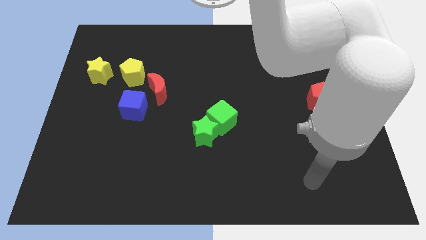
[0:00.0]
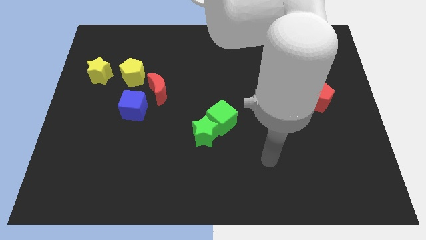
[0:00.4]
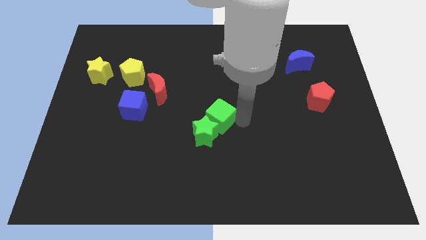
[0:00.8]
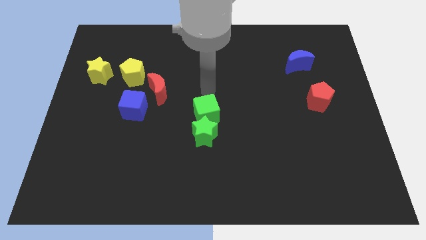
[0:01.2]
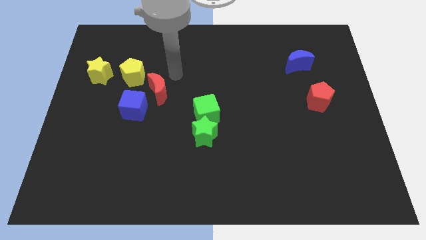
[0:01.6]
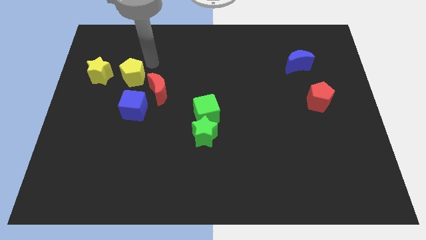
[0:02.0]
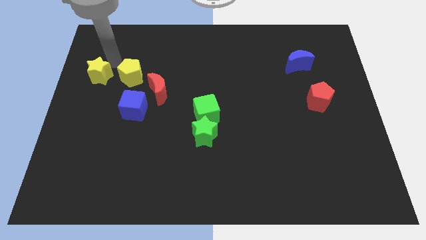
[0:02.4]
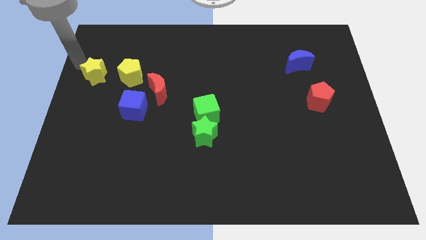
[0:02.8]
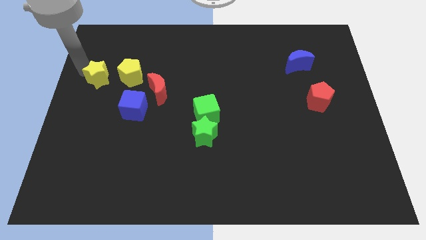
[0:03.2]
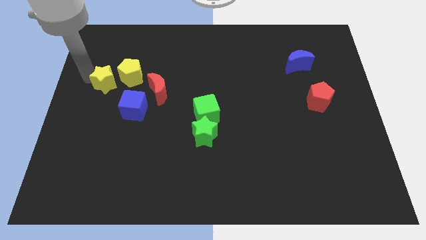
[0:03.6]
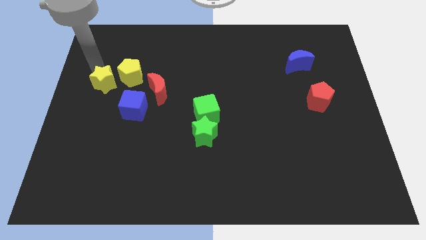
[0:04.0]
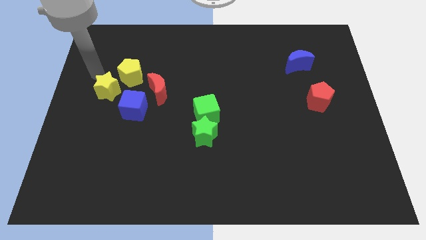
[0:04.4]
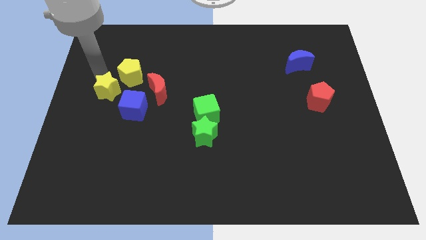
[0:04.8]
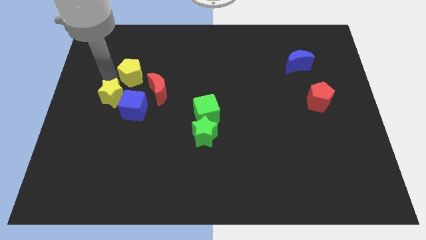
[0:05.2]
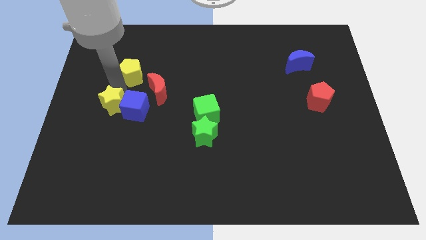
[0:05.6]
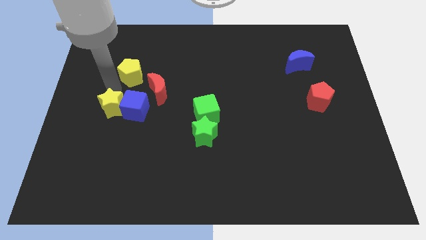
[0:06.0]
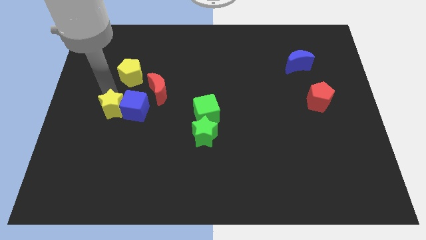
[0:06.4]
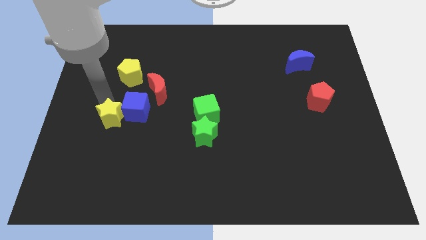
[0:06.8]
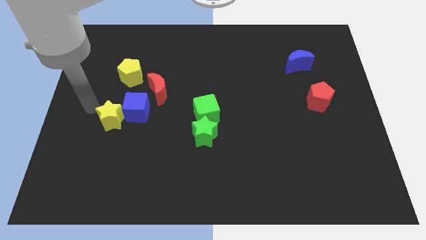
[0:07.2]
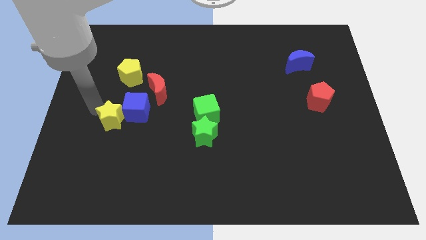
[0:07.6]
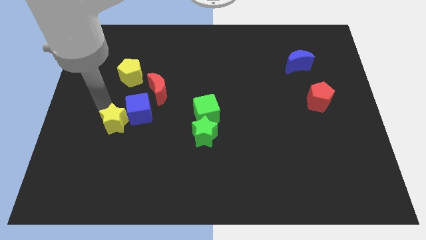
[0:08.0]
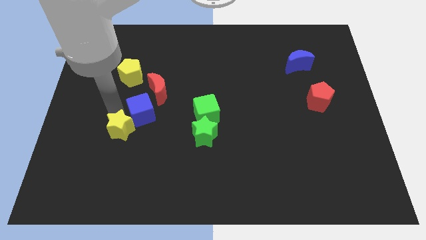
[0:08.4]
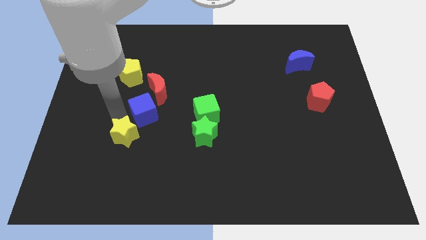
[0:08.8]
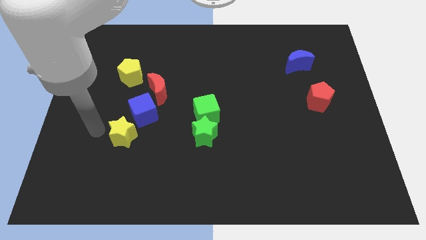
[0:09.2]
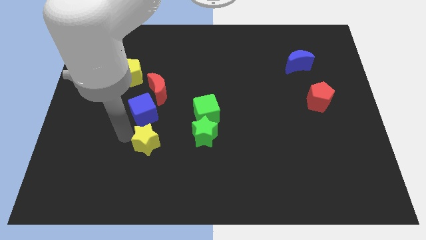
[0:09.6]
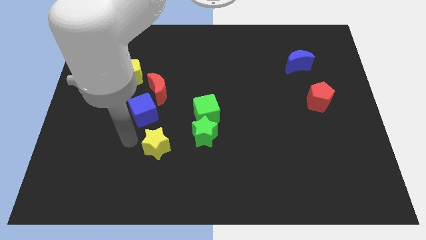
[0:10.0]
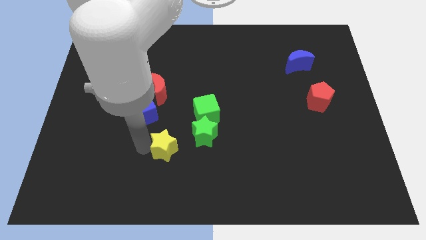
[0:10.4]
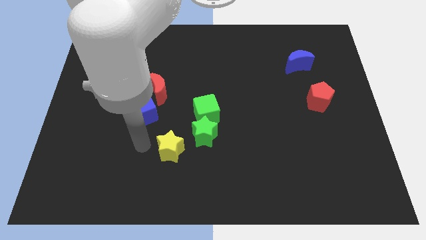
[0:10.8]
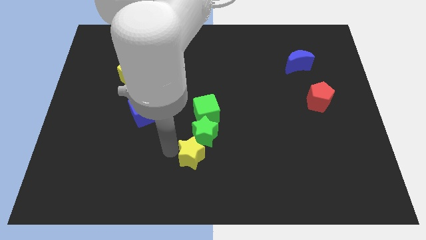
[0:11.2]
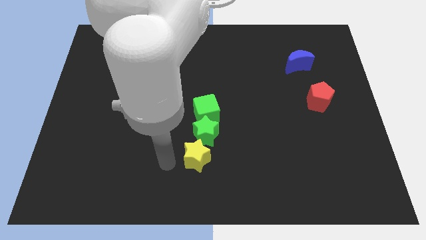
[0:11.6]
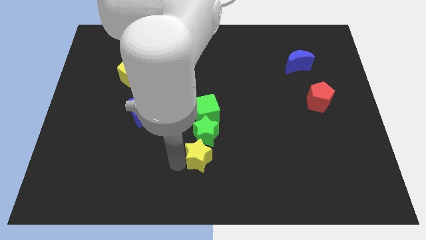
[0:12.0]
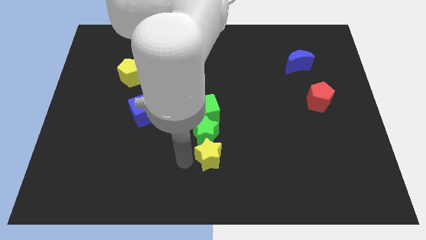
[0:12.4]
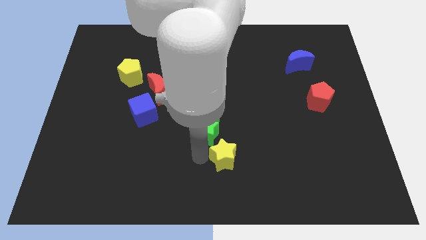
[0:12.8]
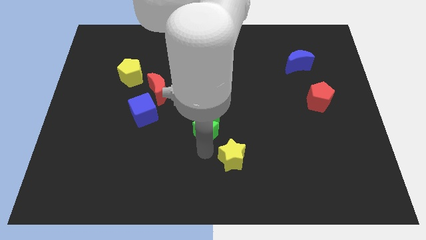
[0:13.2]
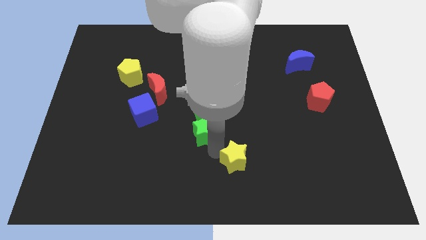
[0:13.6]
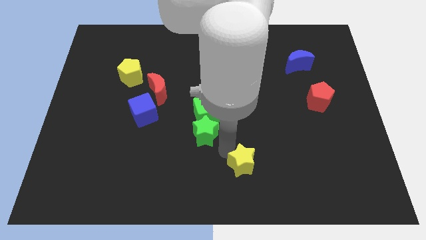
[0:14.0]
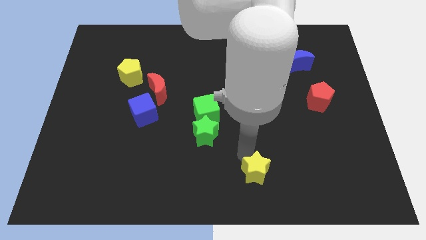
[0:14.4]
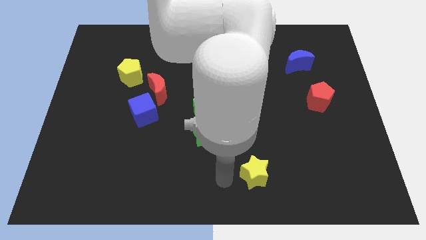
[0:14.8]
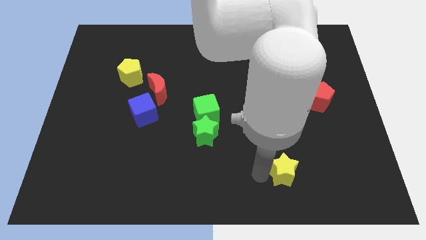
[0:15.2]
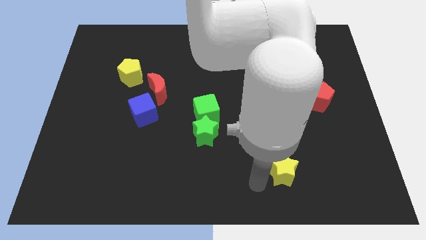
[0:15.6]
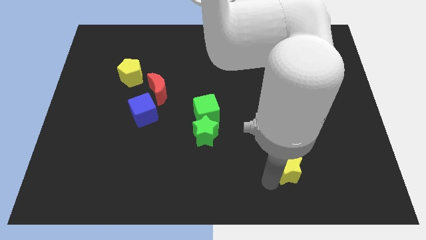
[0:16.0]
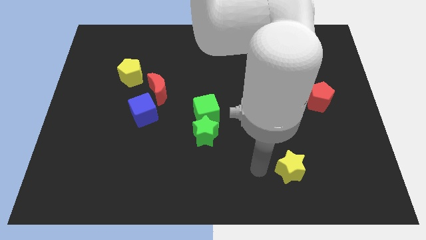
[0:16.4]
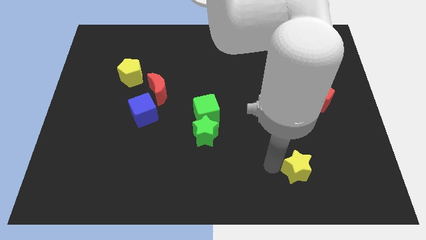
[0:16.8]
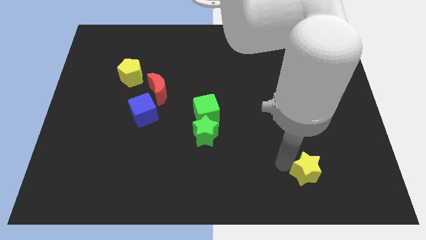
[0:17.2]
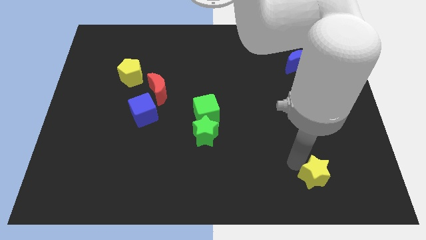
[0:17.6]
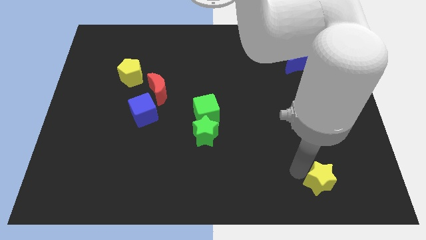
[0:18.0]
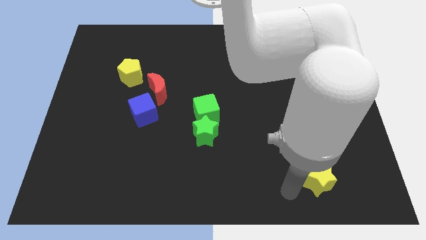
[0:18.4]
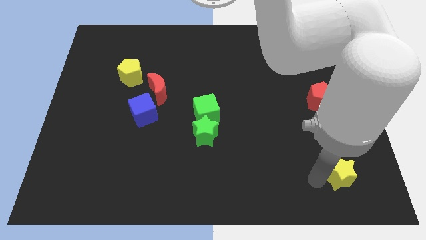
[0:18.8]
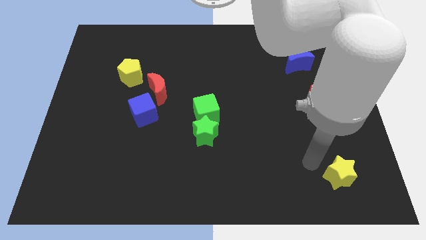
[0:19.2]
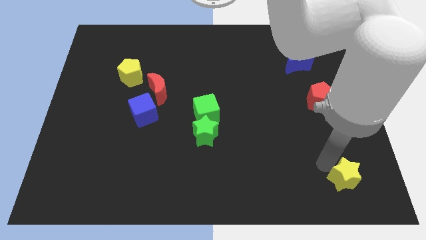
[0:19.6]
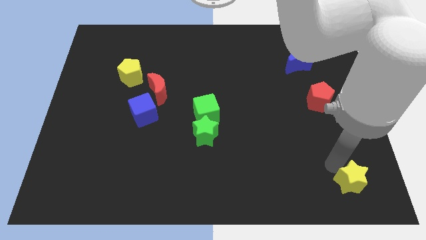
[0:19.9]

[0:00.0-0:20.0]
push the yellow star to the bottom right

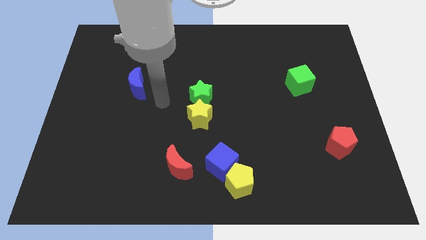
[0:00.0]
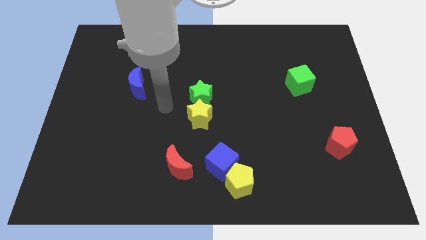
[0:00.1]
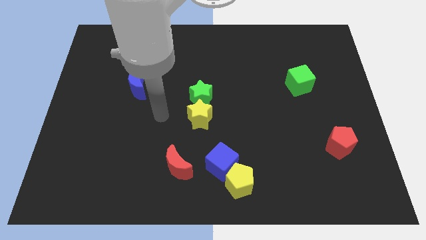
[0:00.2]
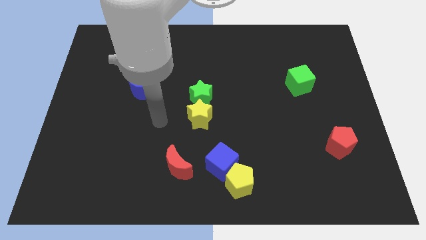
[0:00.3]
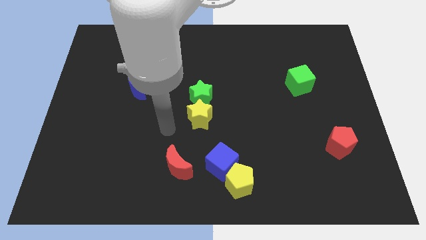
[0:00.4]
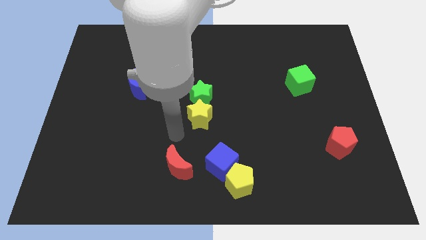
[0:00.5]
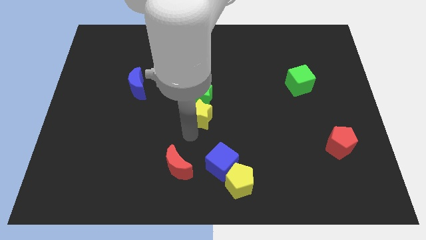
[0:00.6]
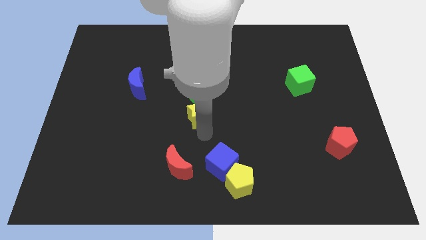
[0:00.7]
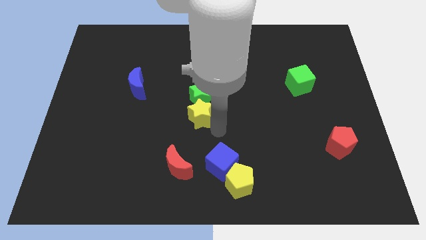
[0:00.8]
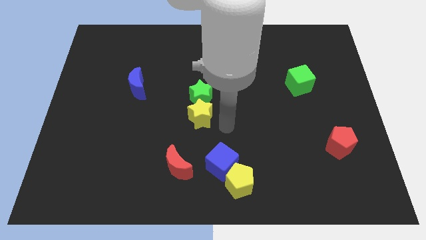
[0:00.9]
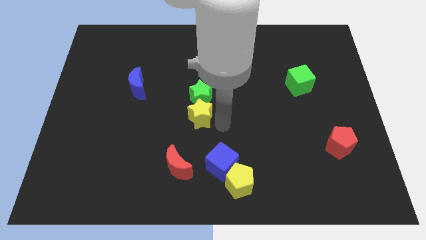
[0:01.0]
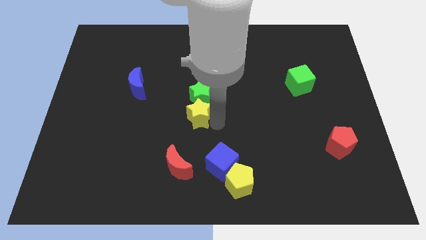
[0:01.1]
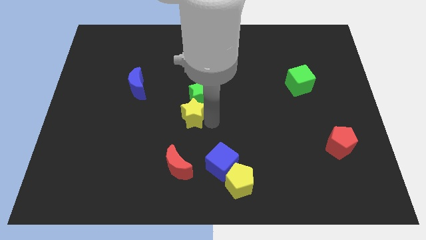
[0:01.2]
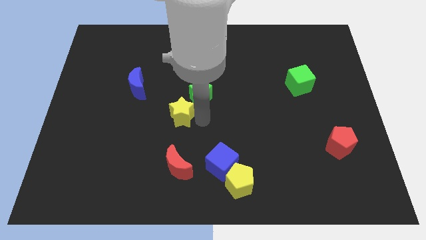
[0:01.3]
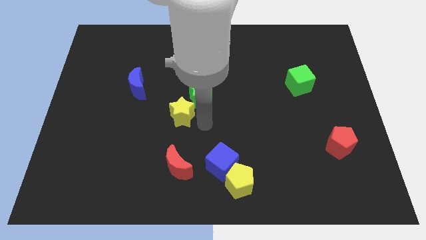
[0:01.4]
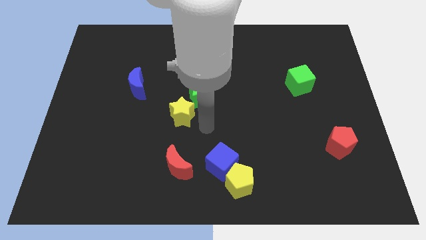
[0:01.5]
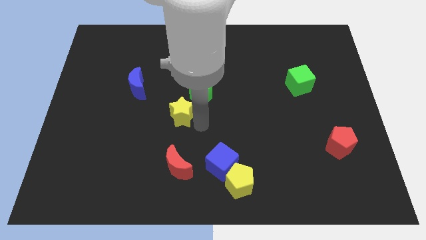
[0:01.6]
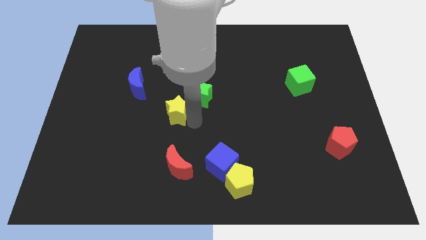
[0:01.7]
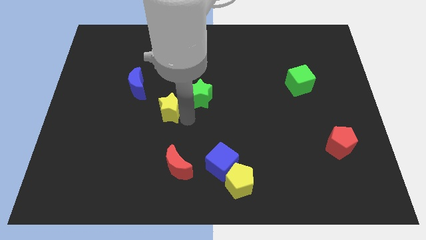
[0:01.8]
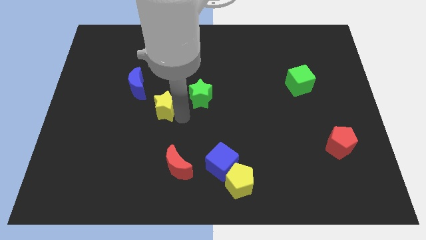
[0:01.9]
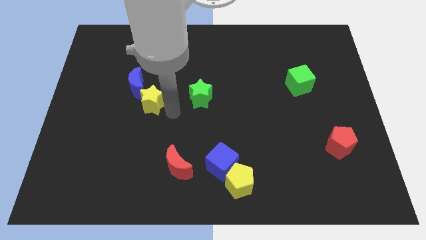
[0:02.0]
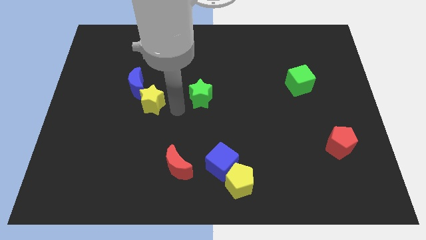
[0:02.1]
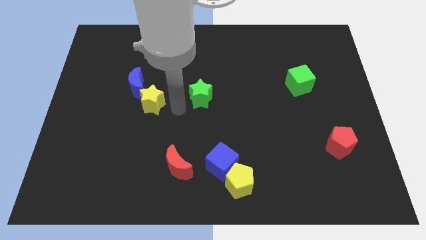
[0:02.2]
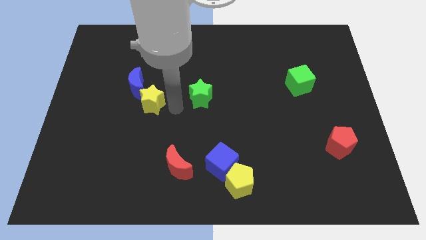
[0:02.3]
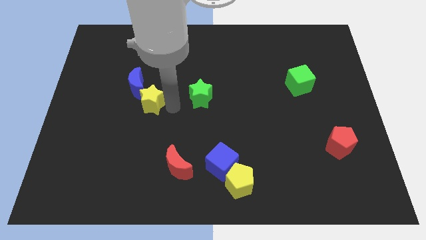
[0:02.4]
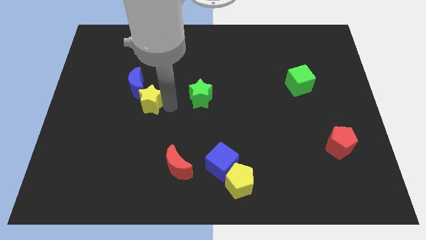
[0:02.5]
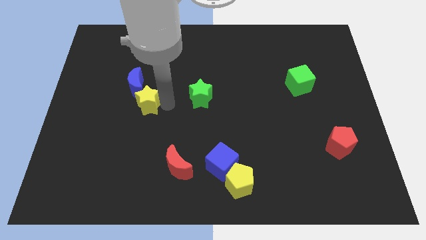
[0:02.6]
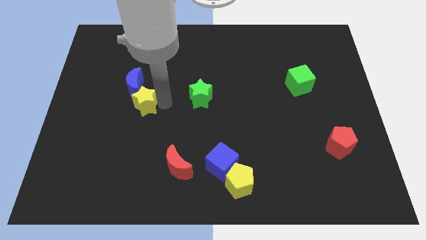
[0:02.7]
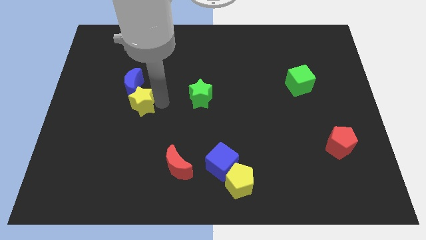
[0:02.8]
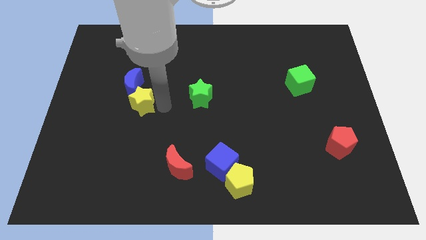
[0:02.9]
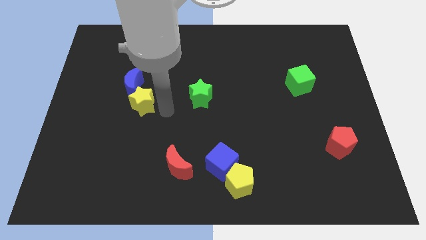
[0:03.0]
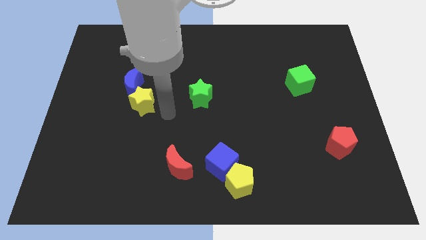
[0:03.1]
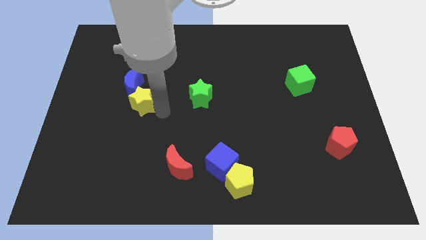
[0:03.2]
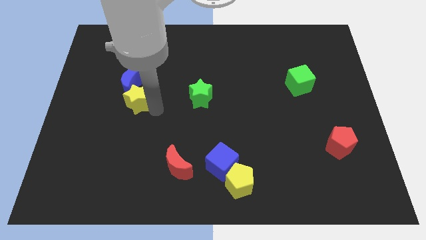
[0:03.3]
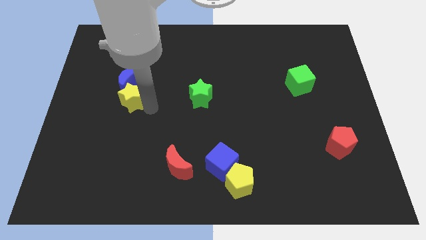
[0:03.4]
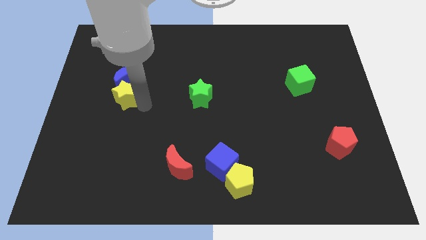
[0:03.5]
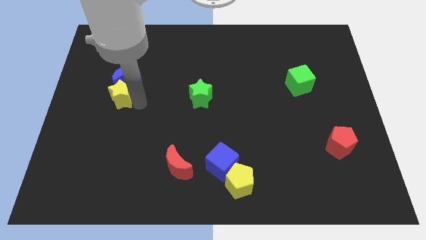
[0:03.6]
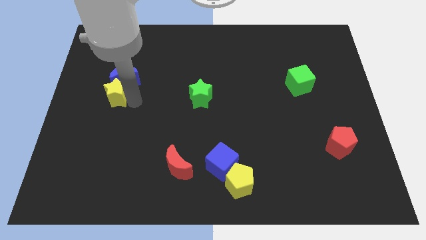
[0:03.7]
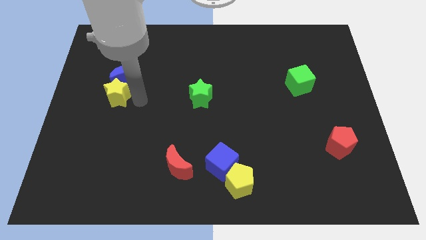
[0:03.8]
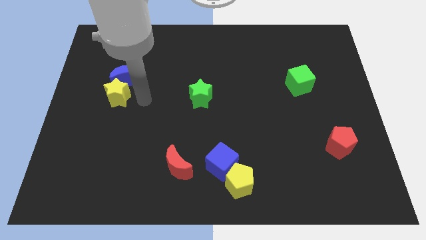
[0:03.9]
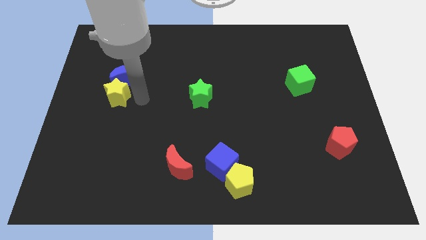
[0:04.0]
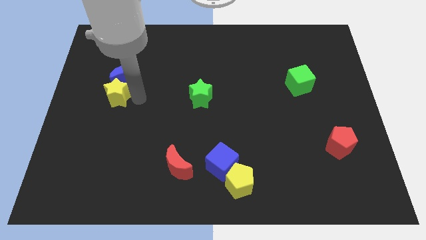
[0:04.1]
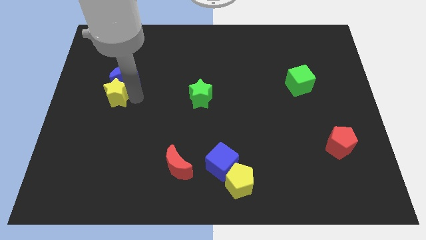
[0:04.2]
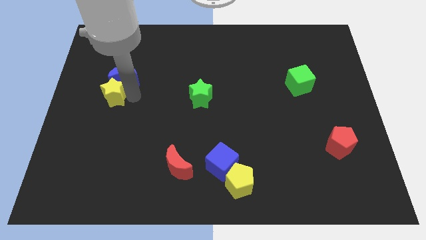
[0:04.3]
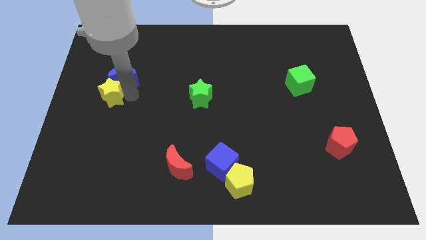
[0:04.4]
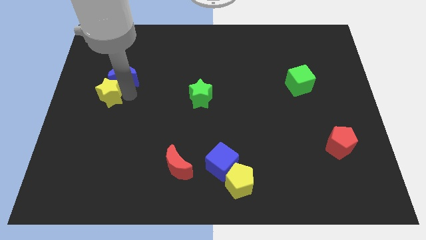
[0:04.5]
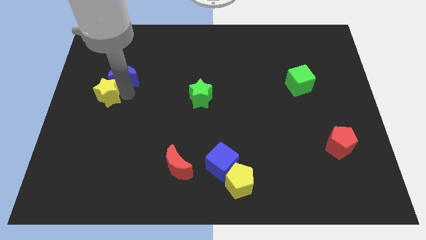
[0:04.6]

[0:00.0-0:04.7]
put the yellow star to the center left
